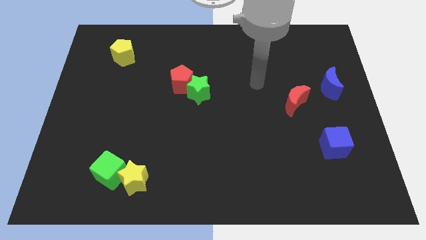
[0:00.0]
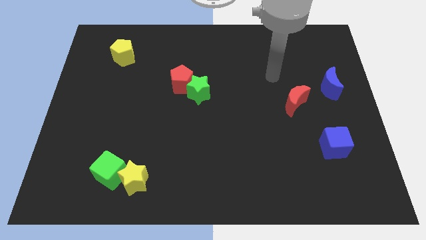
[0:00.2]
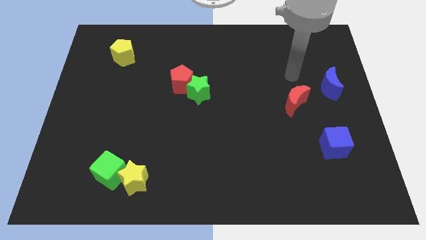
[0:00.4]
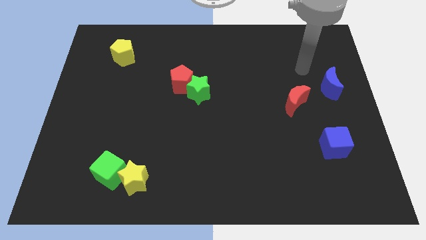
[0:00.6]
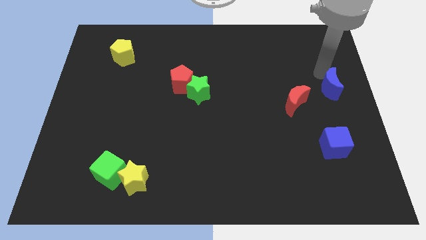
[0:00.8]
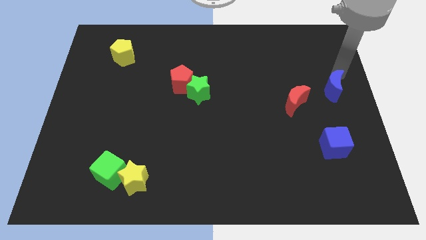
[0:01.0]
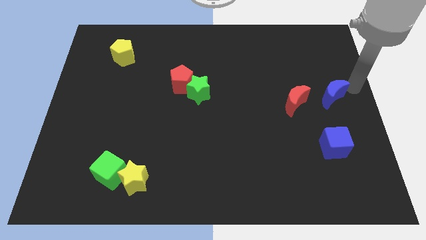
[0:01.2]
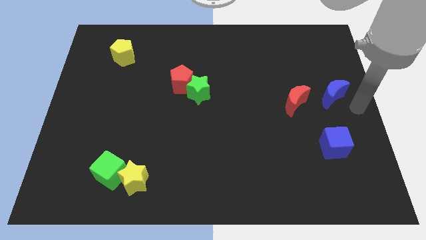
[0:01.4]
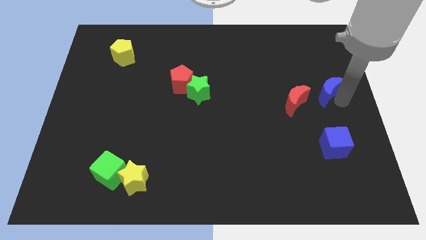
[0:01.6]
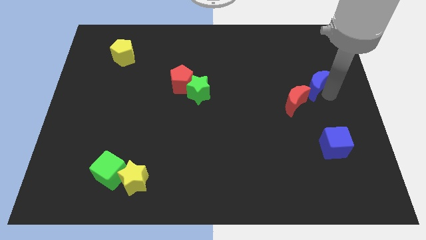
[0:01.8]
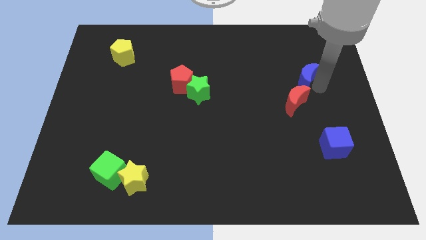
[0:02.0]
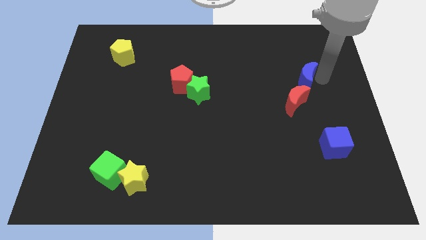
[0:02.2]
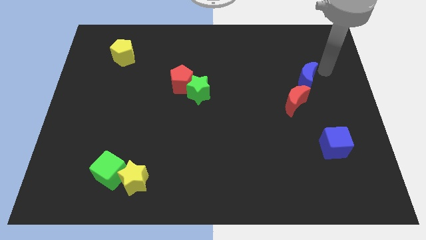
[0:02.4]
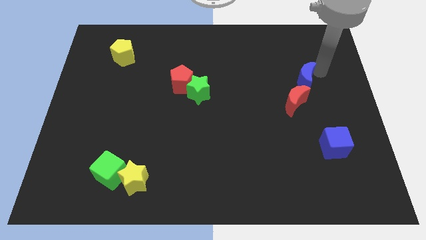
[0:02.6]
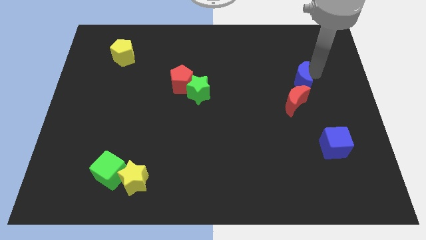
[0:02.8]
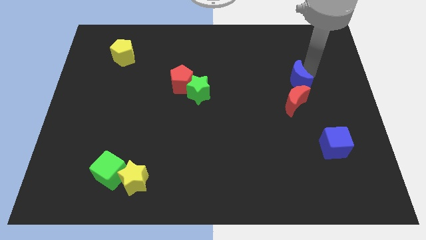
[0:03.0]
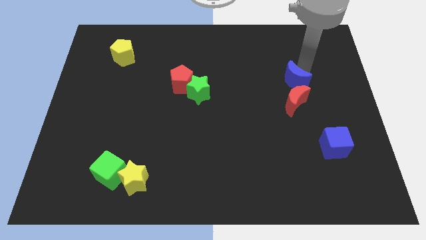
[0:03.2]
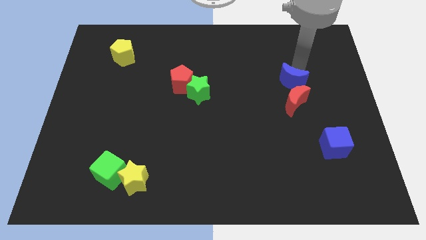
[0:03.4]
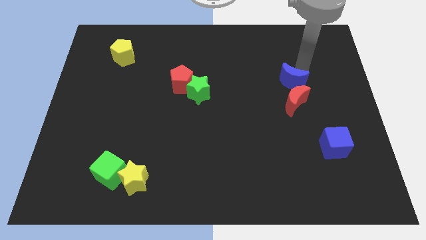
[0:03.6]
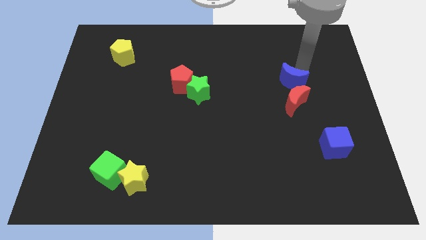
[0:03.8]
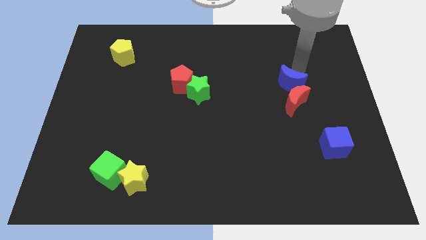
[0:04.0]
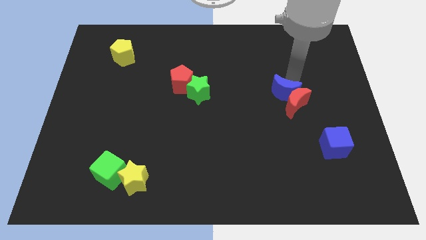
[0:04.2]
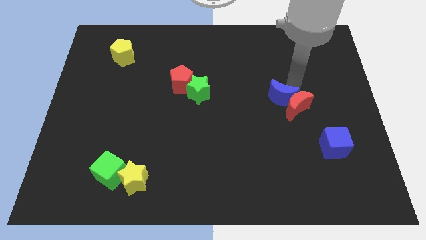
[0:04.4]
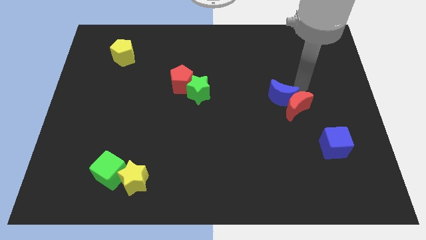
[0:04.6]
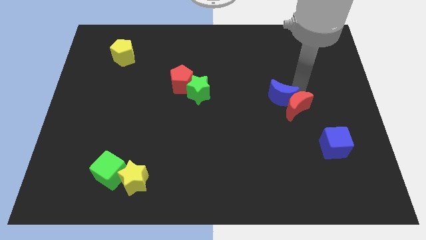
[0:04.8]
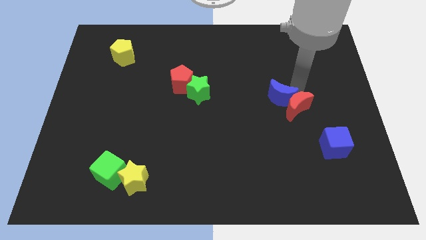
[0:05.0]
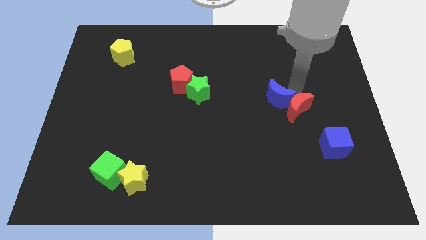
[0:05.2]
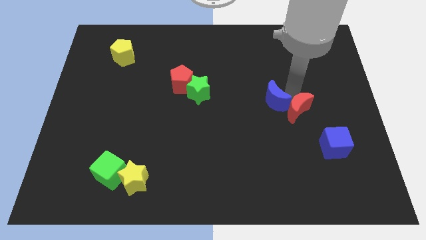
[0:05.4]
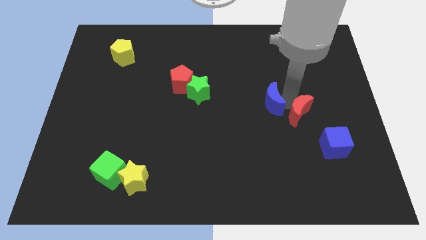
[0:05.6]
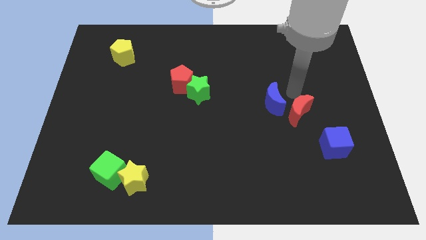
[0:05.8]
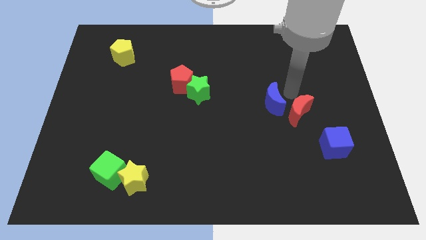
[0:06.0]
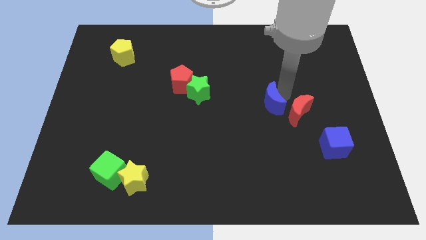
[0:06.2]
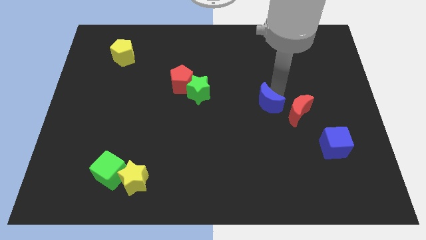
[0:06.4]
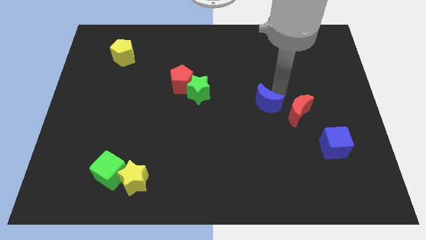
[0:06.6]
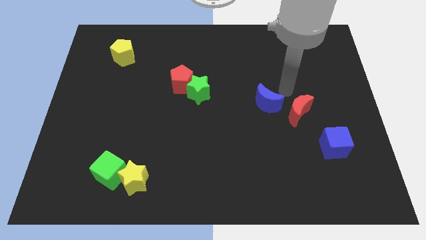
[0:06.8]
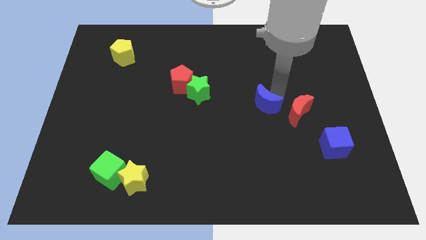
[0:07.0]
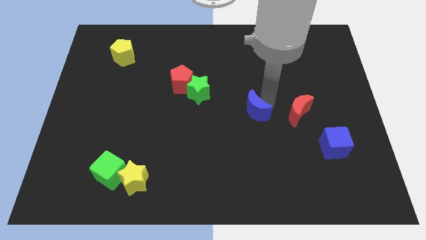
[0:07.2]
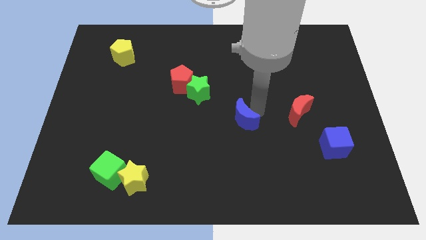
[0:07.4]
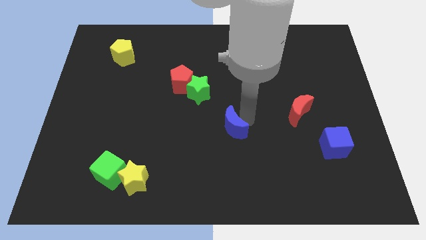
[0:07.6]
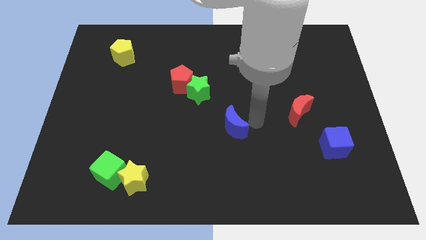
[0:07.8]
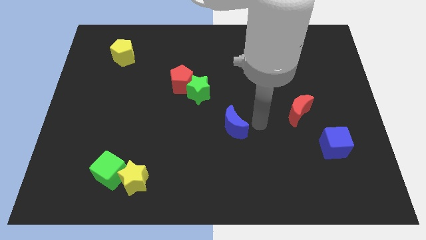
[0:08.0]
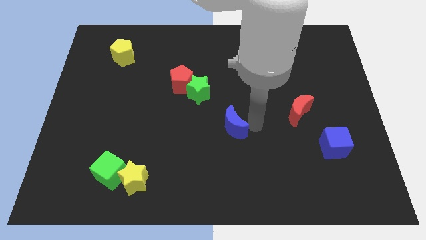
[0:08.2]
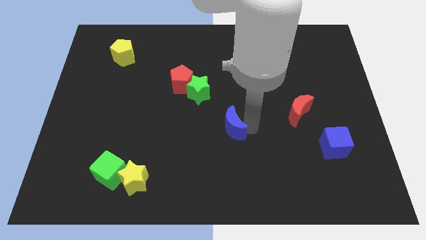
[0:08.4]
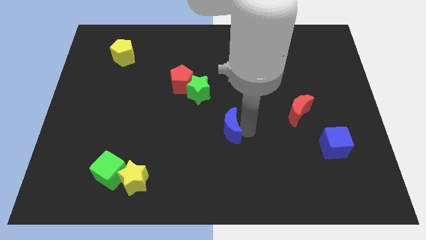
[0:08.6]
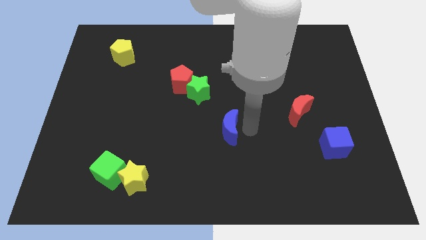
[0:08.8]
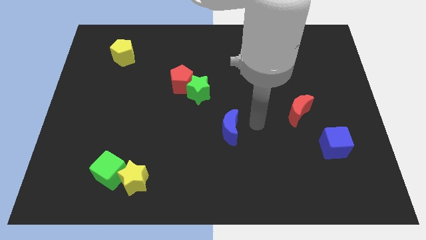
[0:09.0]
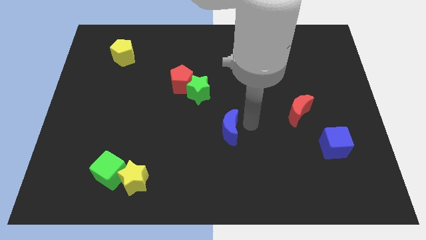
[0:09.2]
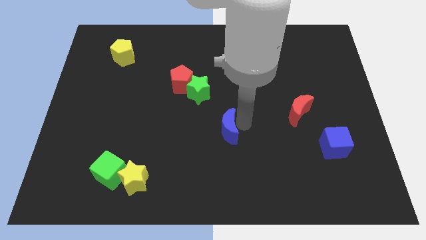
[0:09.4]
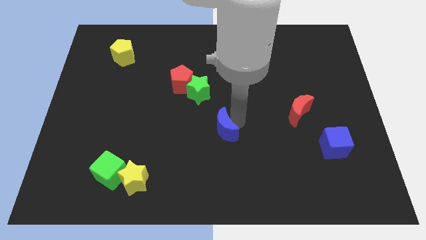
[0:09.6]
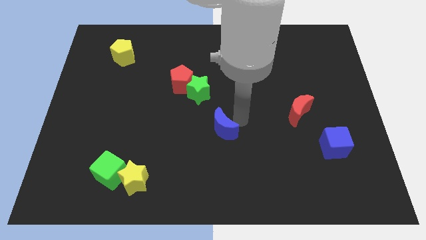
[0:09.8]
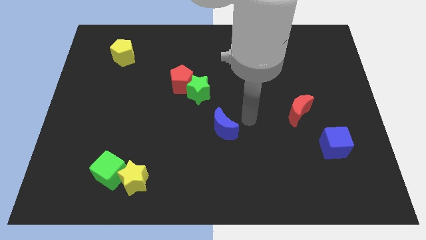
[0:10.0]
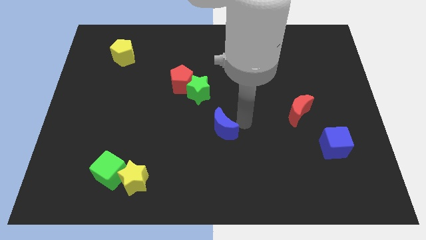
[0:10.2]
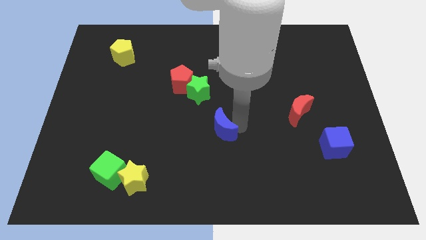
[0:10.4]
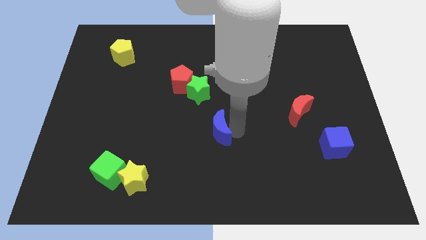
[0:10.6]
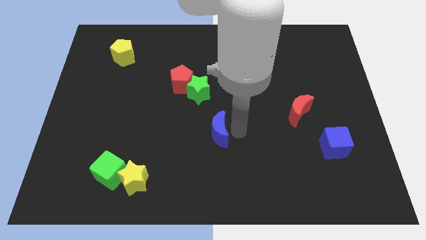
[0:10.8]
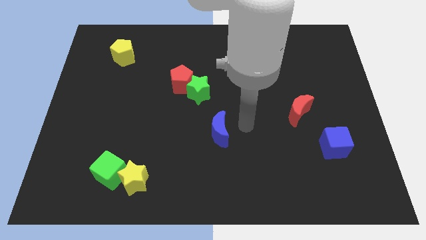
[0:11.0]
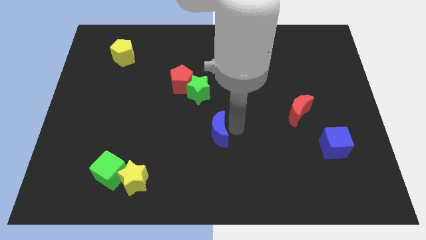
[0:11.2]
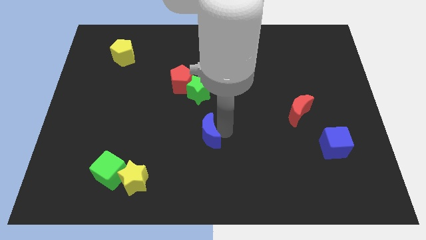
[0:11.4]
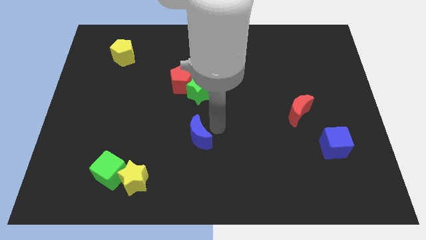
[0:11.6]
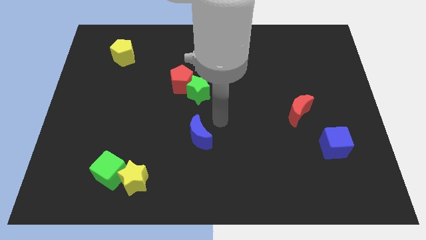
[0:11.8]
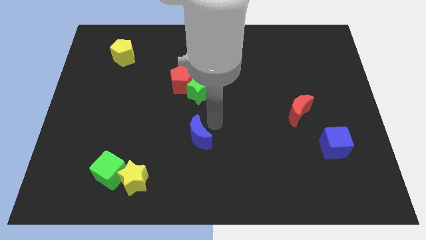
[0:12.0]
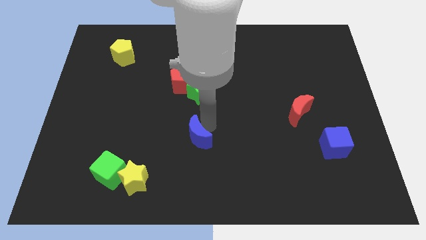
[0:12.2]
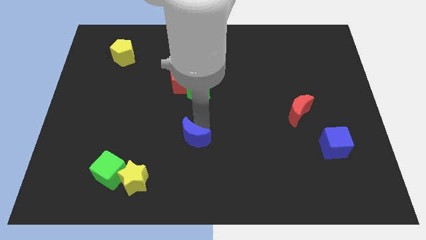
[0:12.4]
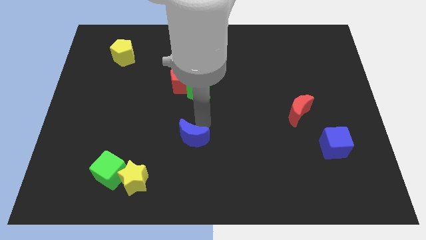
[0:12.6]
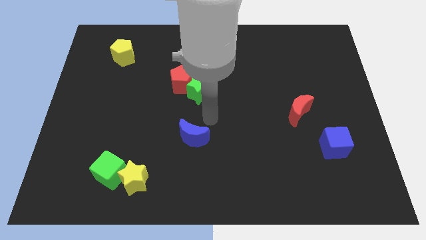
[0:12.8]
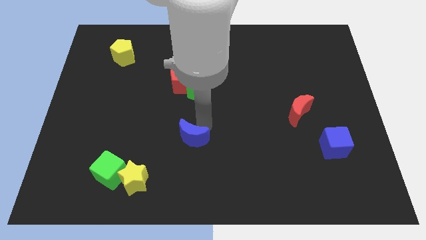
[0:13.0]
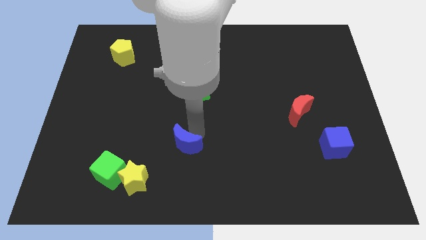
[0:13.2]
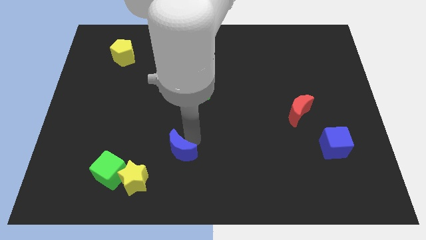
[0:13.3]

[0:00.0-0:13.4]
move the blue moon to the top right side of the yellow star
